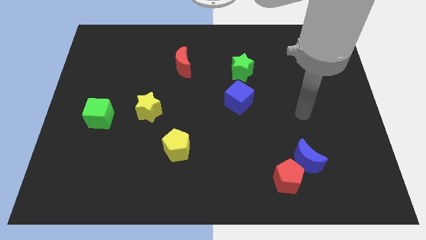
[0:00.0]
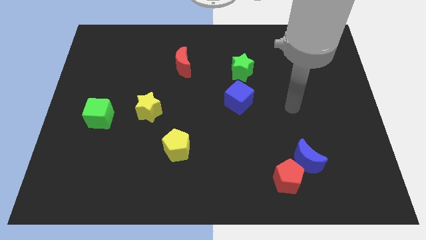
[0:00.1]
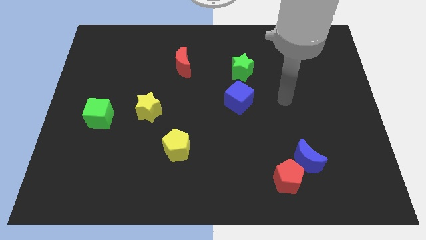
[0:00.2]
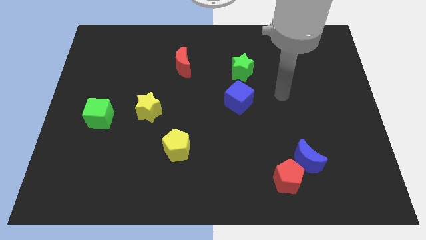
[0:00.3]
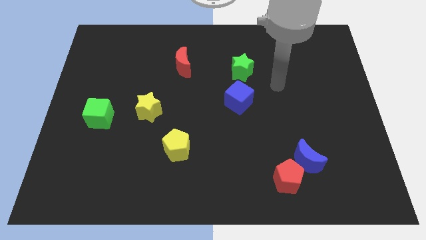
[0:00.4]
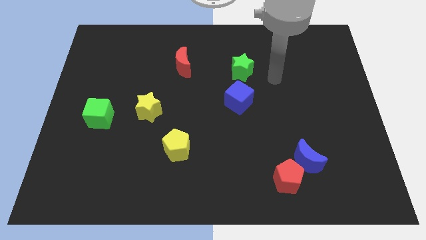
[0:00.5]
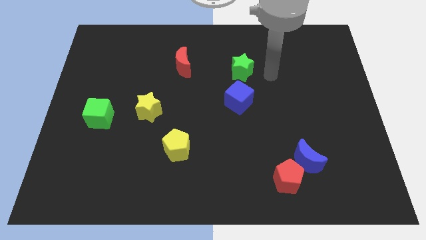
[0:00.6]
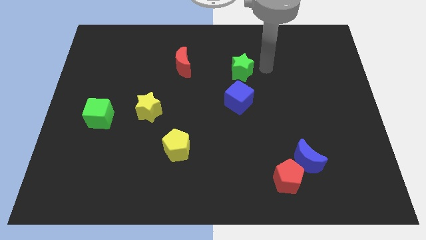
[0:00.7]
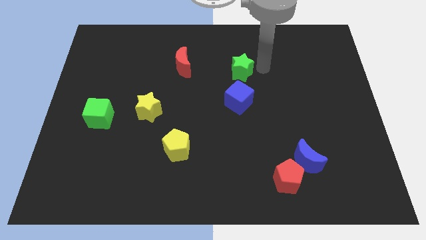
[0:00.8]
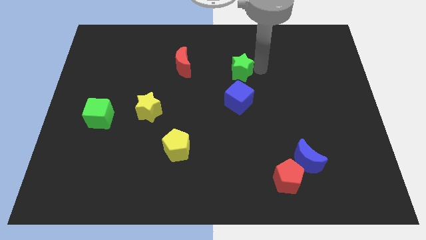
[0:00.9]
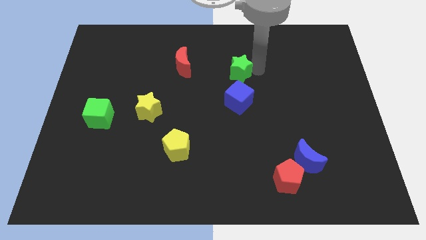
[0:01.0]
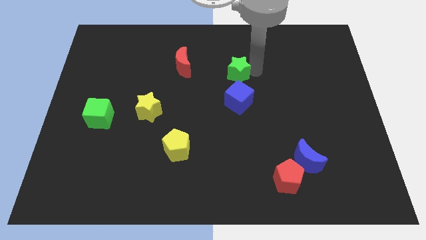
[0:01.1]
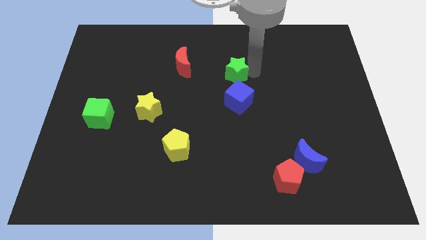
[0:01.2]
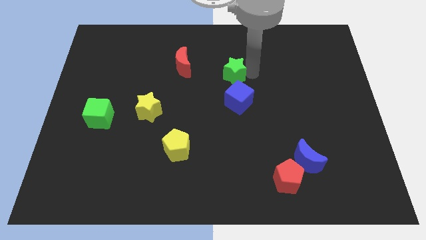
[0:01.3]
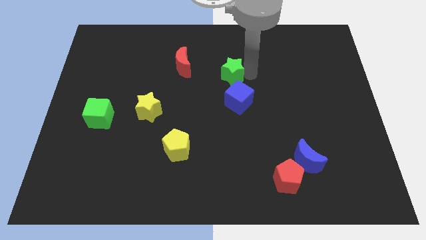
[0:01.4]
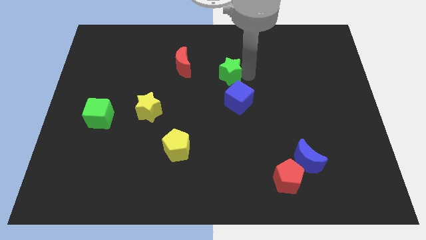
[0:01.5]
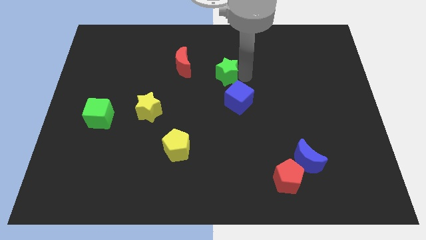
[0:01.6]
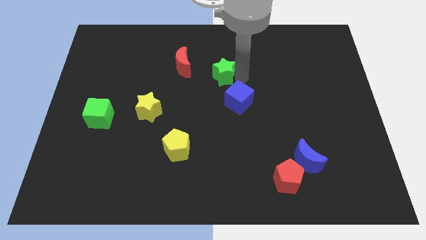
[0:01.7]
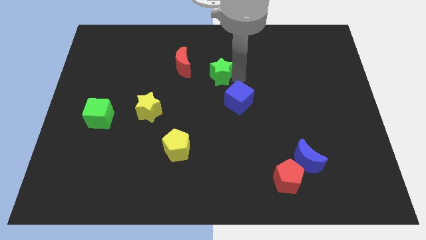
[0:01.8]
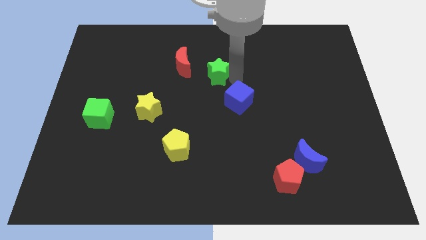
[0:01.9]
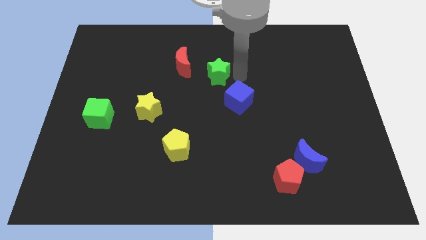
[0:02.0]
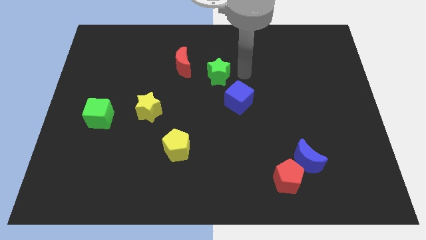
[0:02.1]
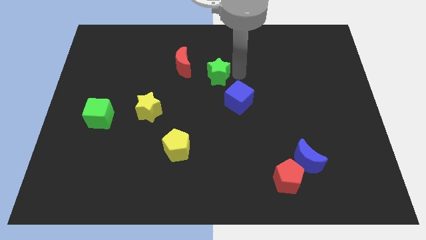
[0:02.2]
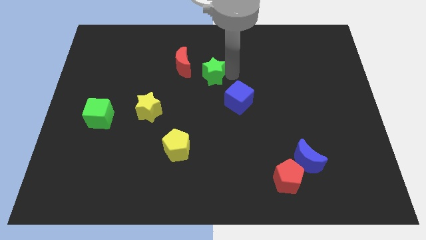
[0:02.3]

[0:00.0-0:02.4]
push the green star a little to the left

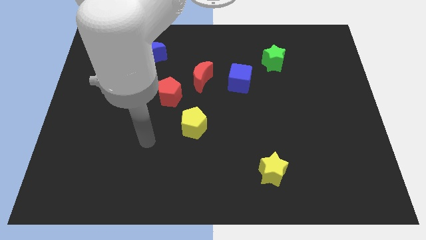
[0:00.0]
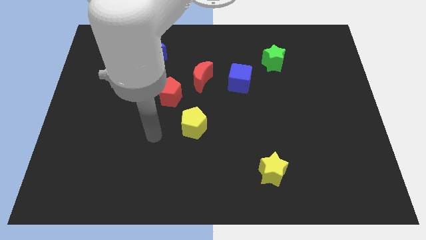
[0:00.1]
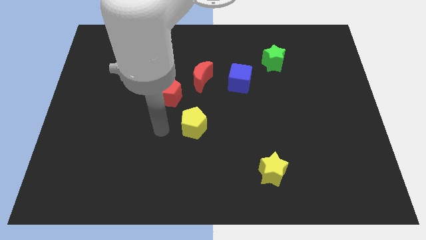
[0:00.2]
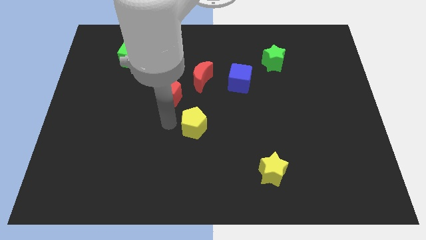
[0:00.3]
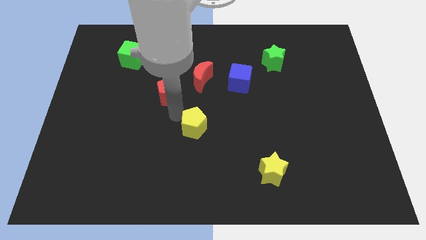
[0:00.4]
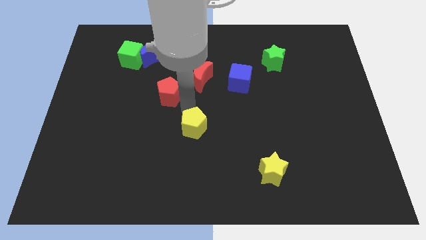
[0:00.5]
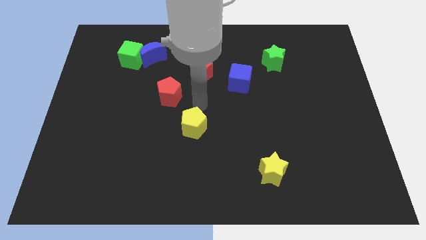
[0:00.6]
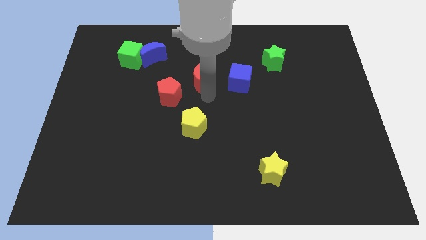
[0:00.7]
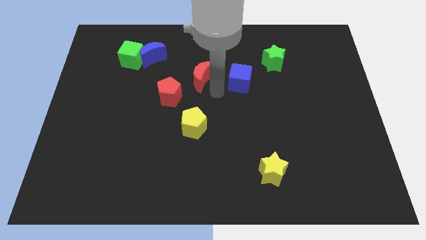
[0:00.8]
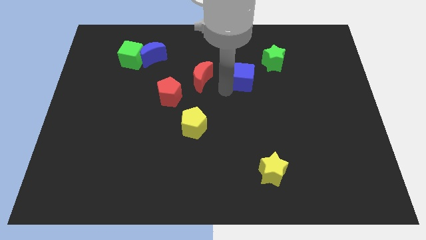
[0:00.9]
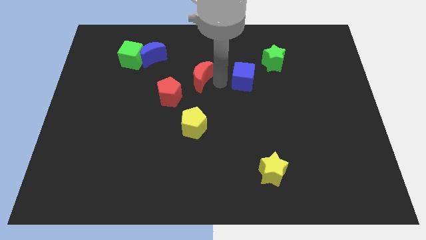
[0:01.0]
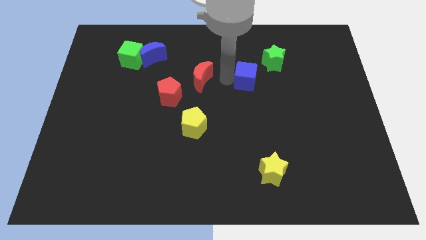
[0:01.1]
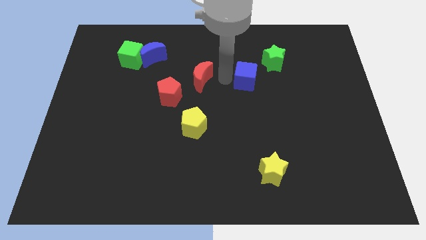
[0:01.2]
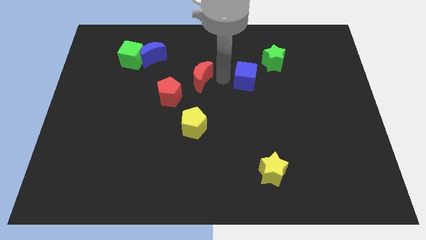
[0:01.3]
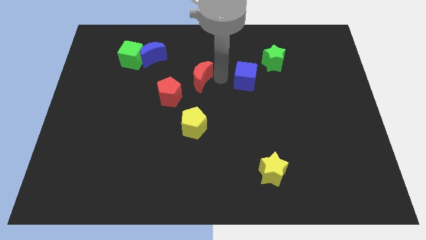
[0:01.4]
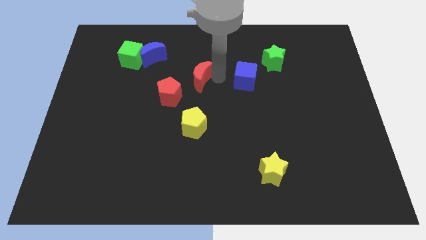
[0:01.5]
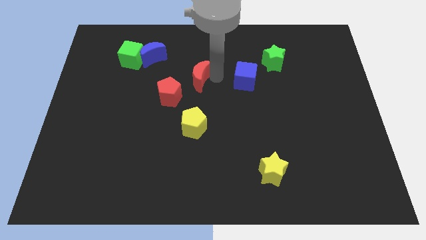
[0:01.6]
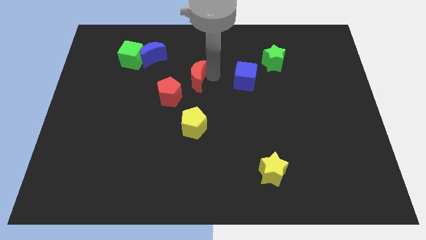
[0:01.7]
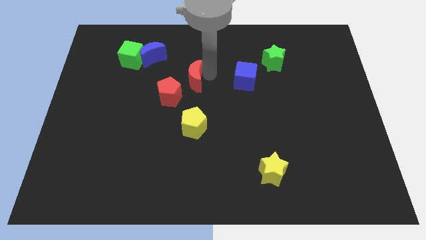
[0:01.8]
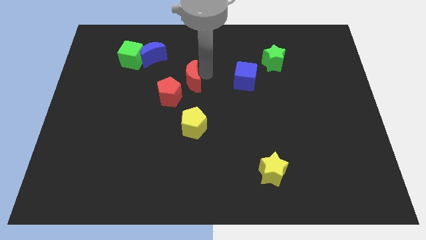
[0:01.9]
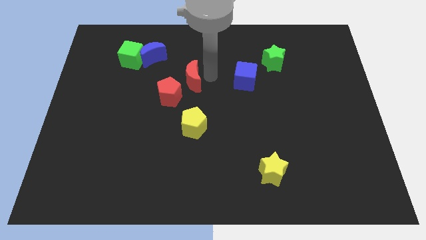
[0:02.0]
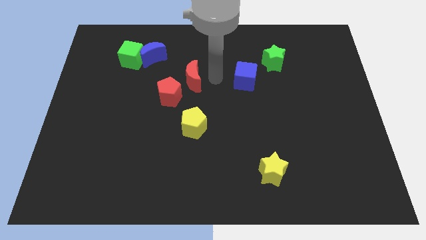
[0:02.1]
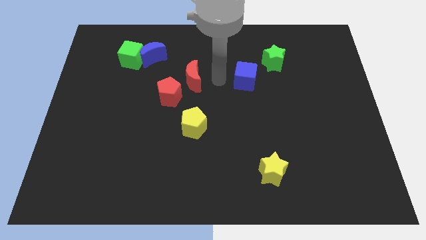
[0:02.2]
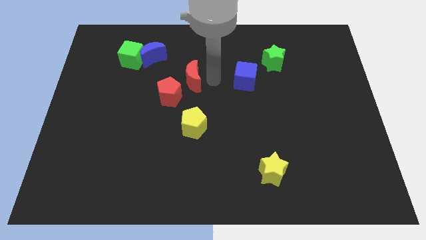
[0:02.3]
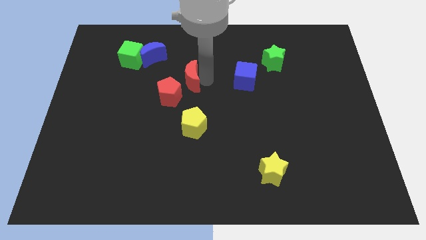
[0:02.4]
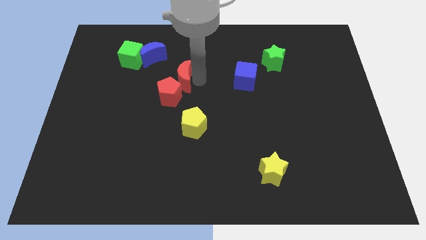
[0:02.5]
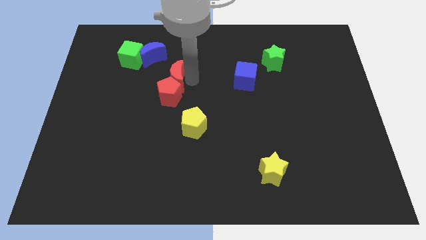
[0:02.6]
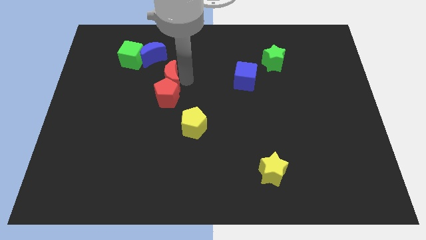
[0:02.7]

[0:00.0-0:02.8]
push the red moon slightly left

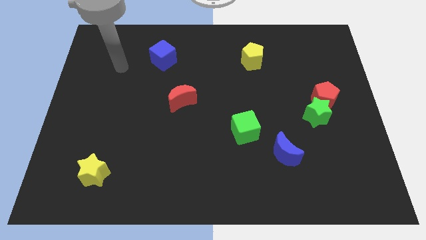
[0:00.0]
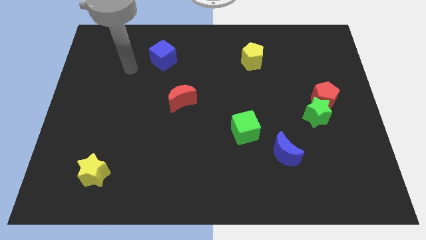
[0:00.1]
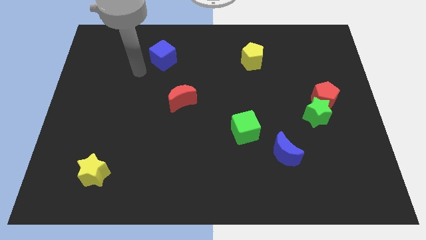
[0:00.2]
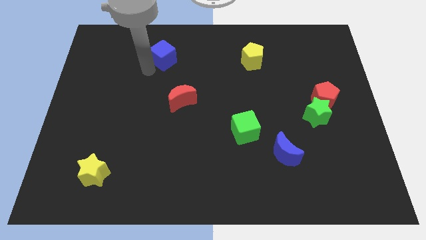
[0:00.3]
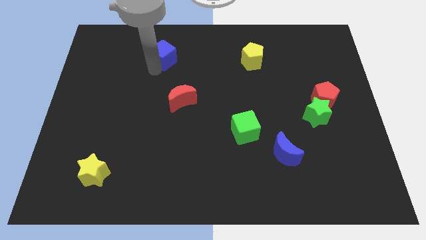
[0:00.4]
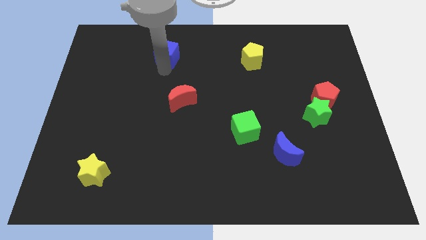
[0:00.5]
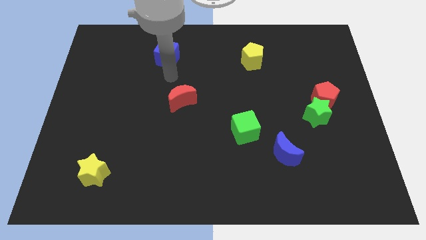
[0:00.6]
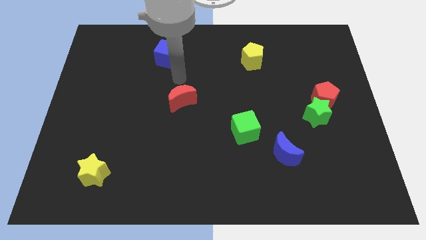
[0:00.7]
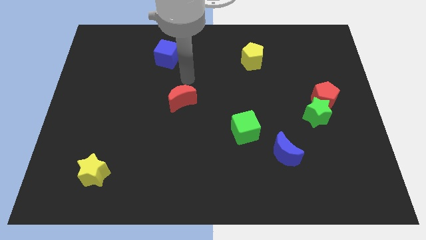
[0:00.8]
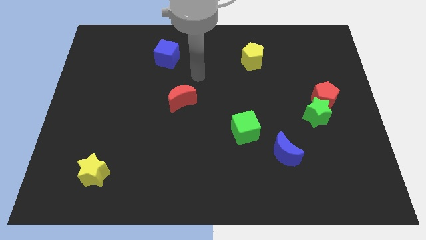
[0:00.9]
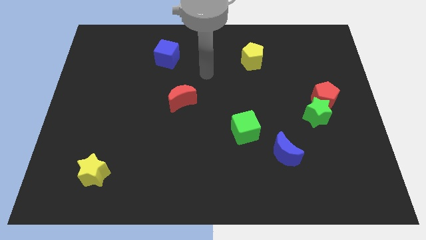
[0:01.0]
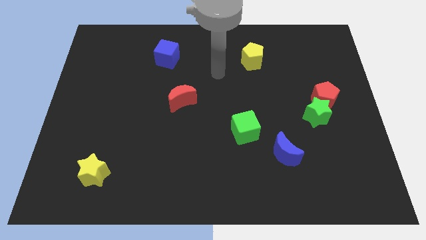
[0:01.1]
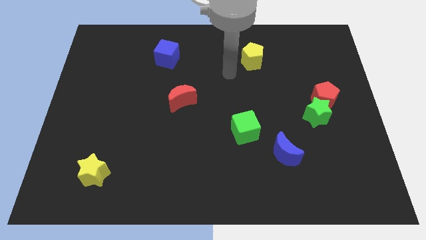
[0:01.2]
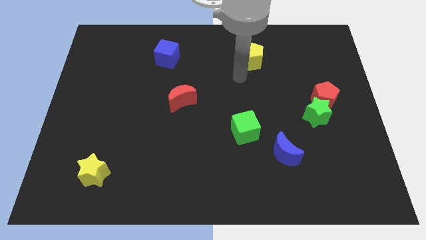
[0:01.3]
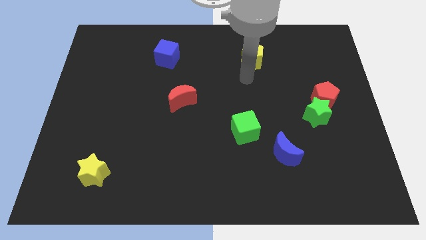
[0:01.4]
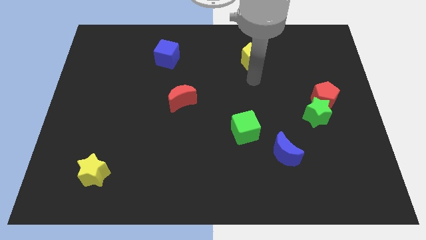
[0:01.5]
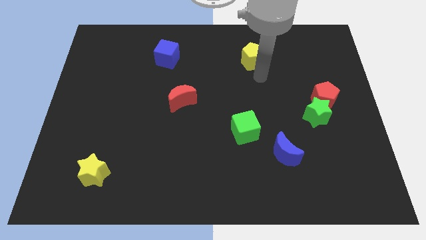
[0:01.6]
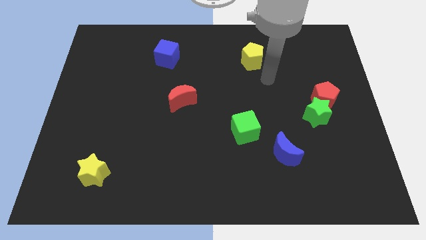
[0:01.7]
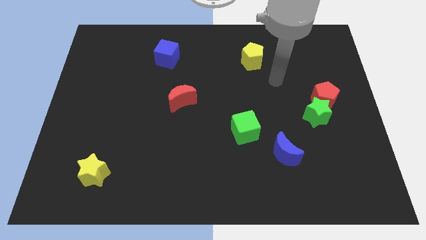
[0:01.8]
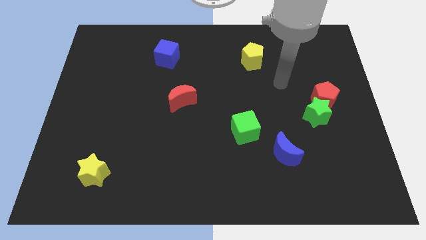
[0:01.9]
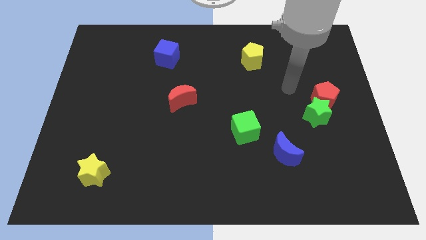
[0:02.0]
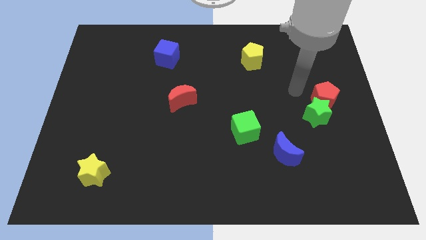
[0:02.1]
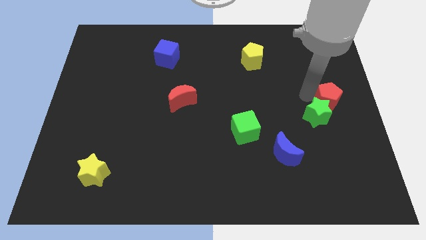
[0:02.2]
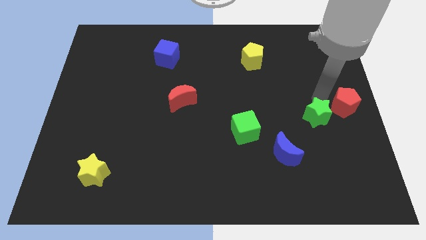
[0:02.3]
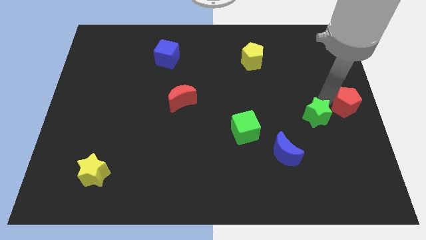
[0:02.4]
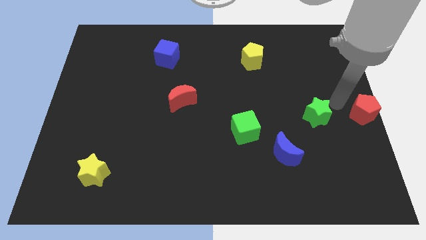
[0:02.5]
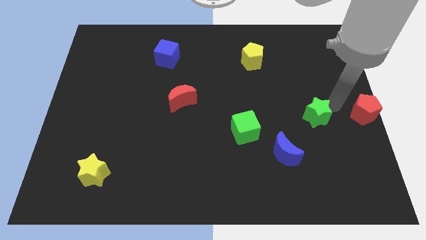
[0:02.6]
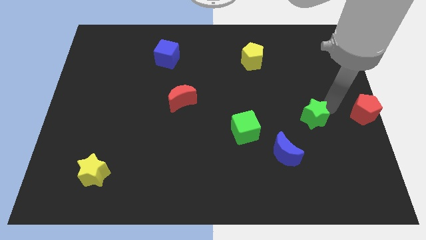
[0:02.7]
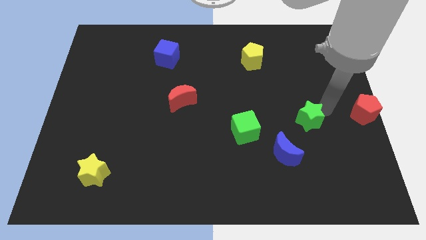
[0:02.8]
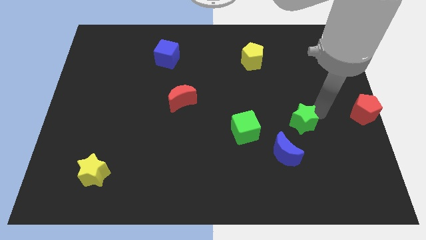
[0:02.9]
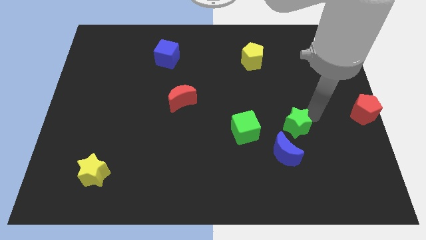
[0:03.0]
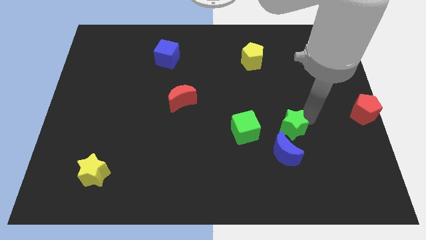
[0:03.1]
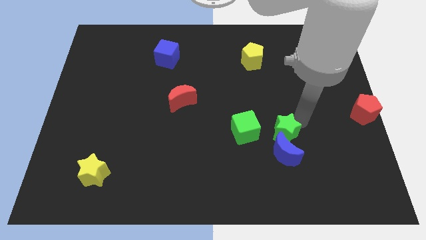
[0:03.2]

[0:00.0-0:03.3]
slightly slide the green star diagonally downwards and left
